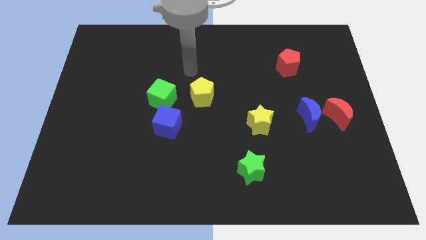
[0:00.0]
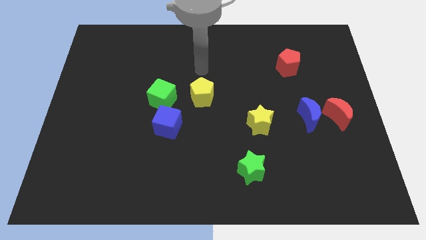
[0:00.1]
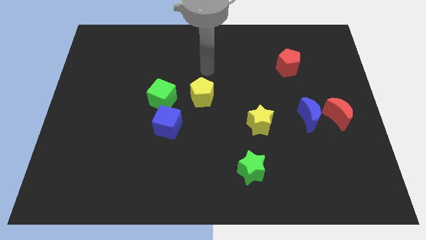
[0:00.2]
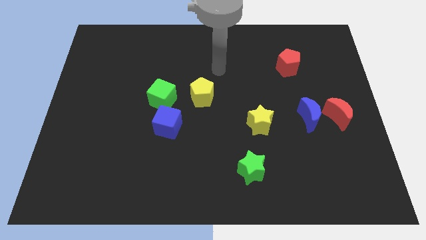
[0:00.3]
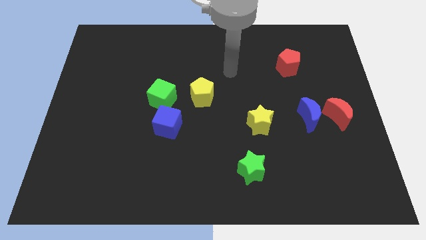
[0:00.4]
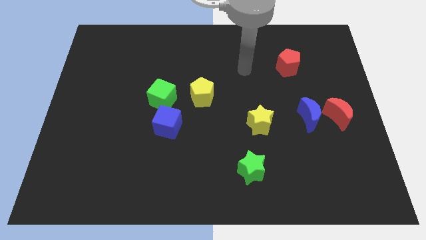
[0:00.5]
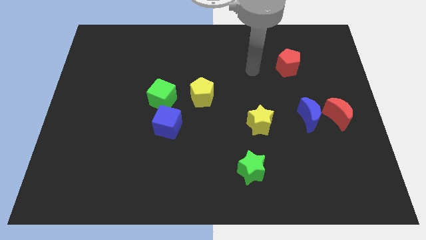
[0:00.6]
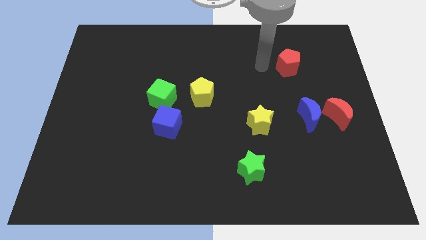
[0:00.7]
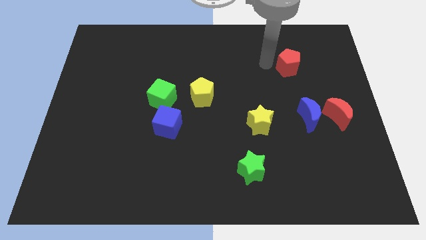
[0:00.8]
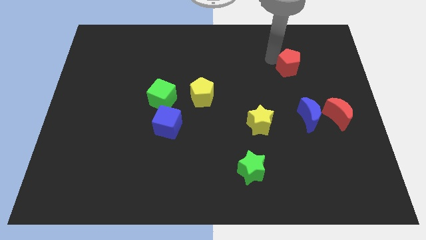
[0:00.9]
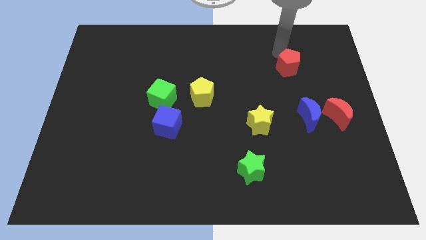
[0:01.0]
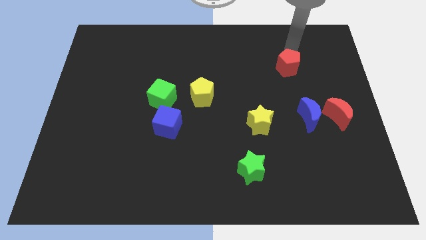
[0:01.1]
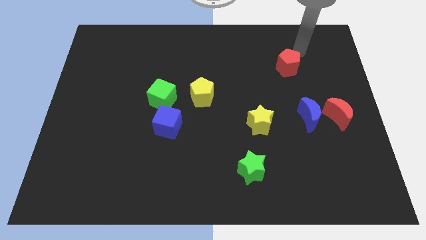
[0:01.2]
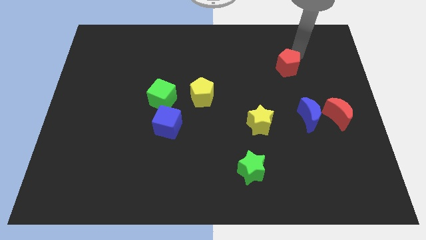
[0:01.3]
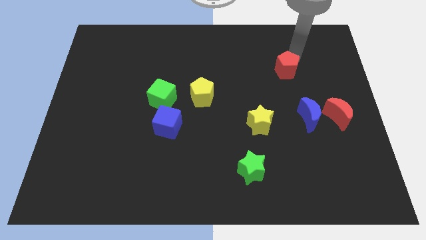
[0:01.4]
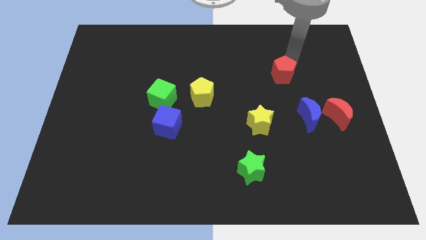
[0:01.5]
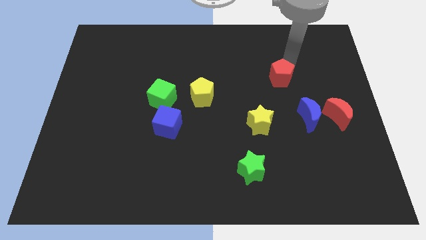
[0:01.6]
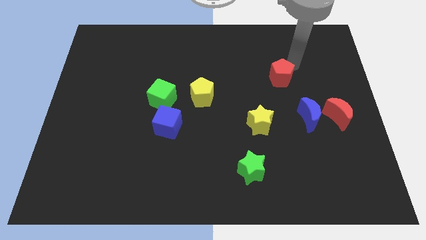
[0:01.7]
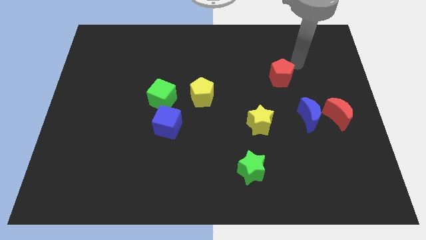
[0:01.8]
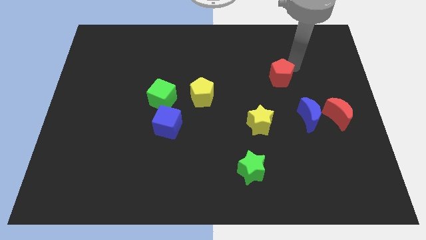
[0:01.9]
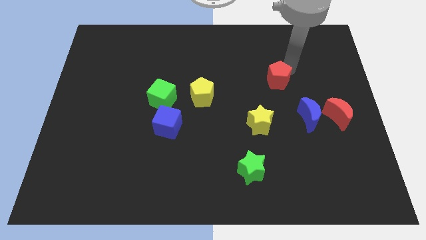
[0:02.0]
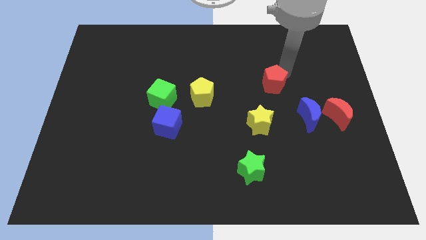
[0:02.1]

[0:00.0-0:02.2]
push the red pentagon downwards and to the left a bit

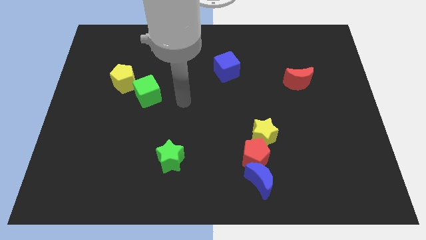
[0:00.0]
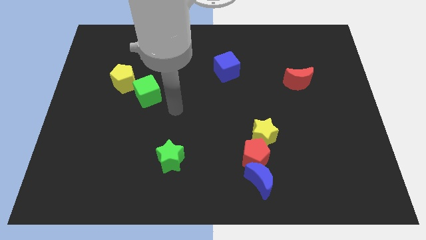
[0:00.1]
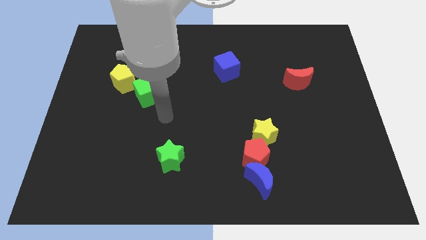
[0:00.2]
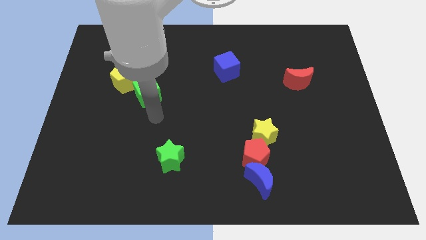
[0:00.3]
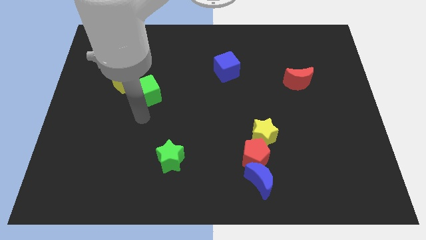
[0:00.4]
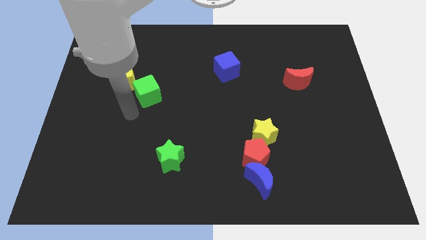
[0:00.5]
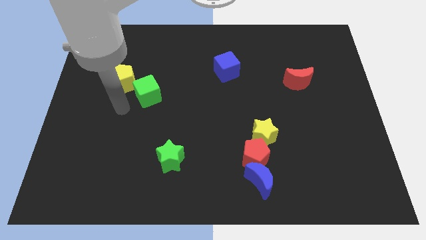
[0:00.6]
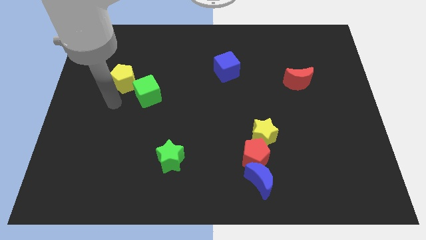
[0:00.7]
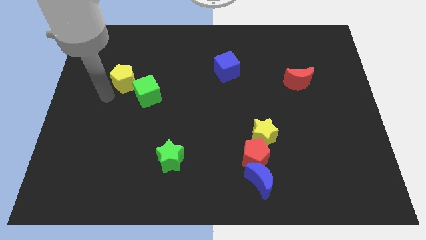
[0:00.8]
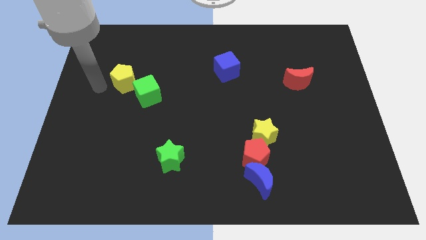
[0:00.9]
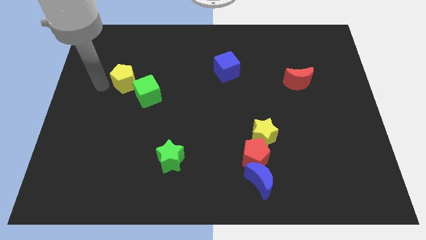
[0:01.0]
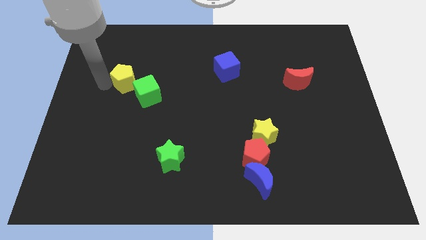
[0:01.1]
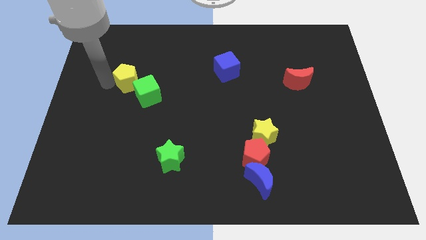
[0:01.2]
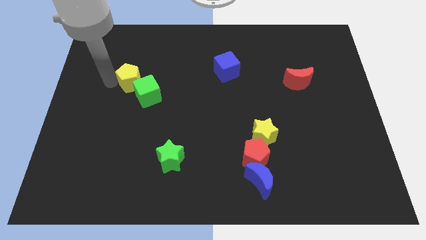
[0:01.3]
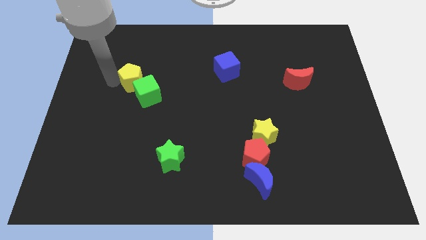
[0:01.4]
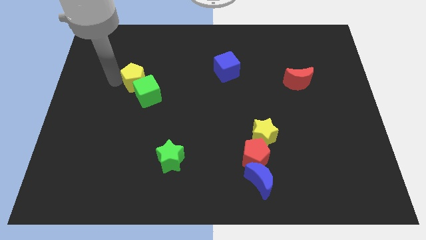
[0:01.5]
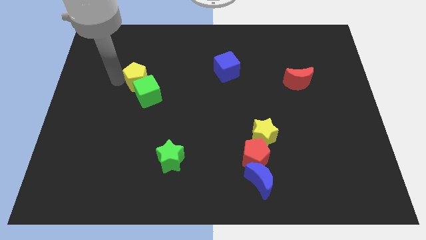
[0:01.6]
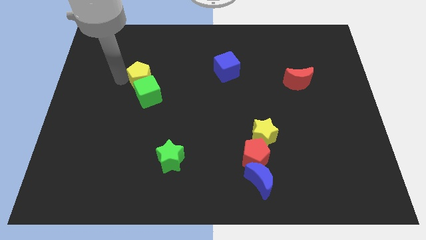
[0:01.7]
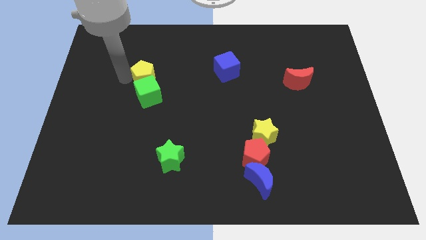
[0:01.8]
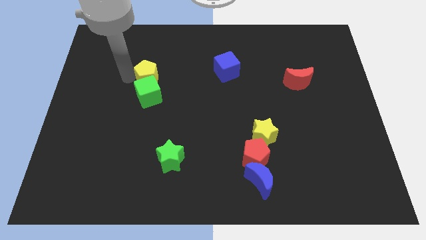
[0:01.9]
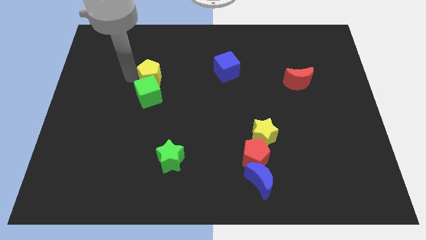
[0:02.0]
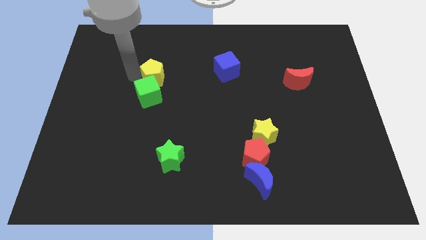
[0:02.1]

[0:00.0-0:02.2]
move the yellow pentagon a little right

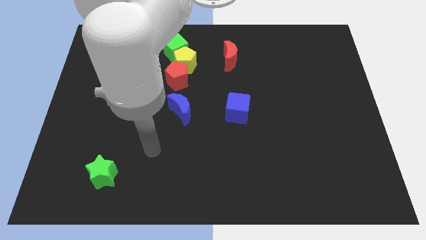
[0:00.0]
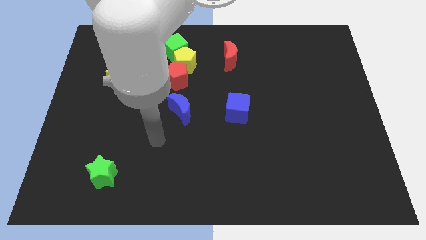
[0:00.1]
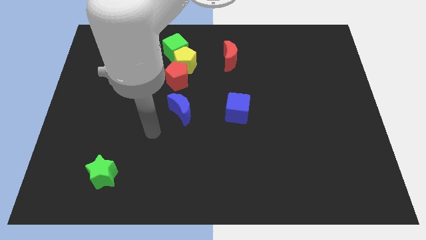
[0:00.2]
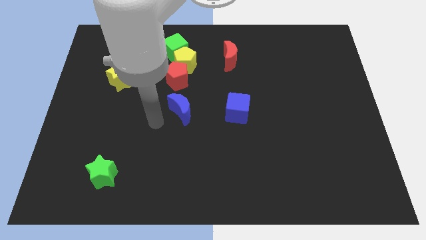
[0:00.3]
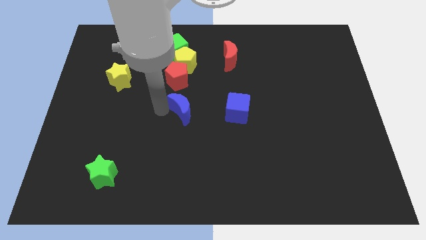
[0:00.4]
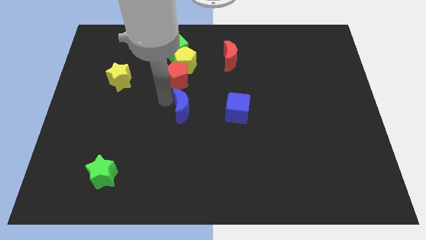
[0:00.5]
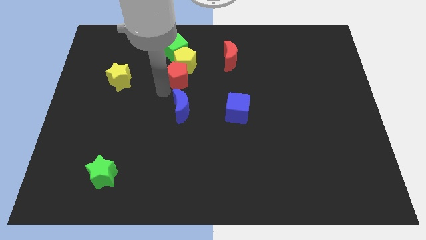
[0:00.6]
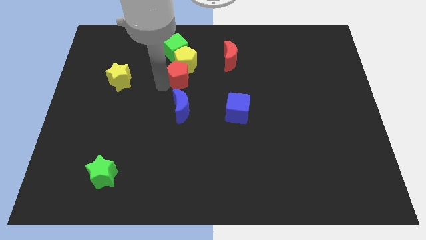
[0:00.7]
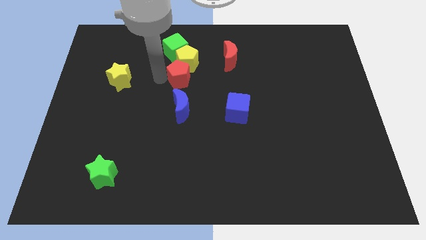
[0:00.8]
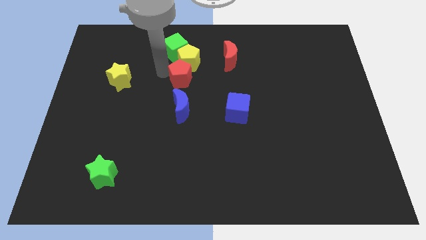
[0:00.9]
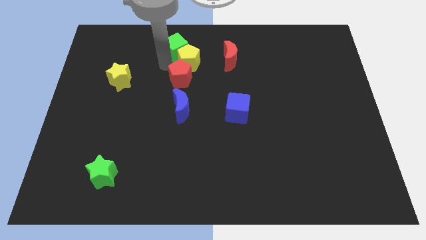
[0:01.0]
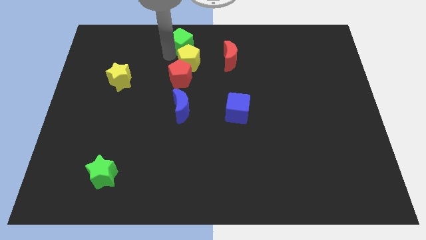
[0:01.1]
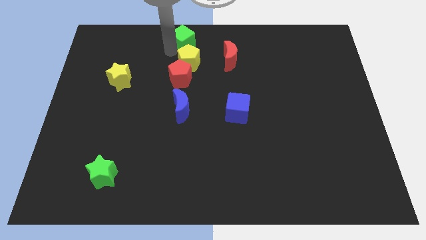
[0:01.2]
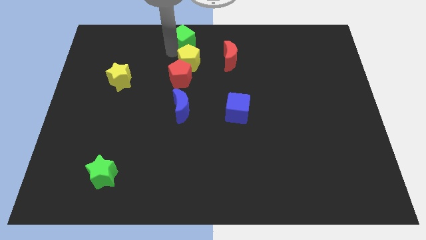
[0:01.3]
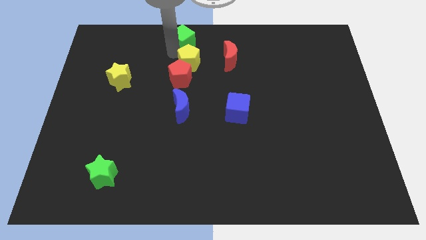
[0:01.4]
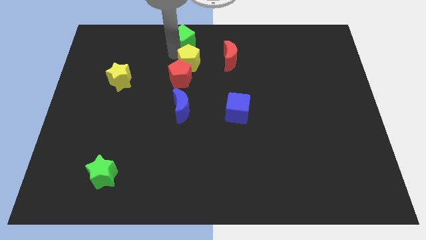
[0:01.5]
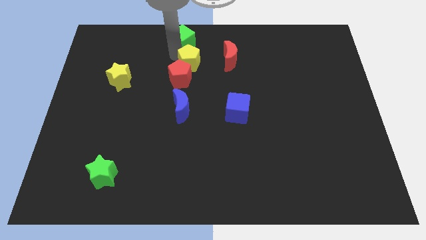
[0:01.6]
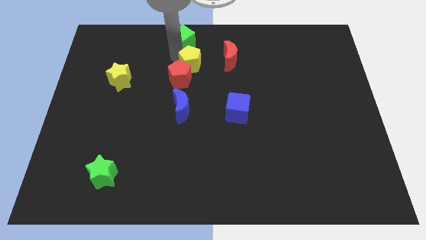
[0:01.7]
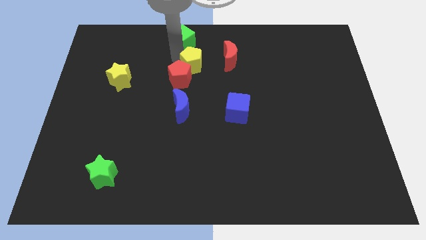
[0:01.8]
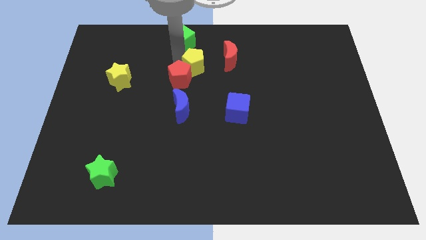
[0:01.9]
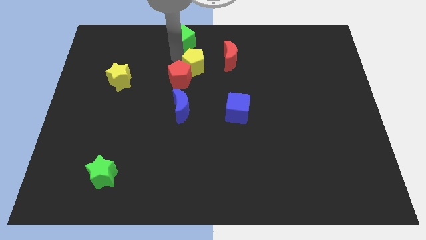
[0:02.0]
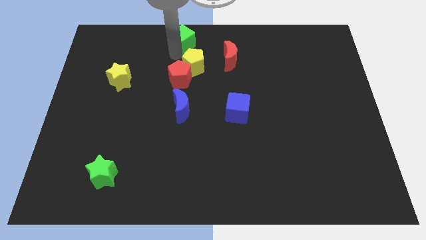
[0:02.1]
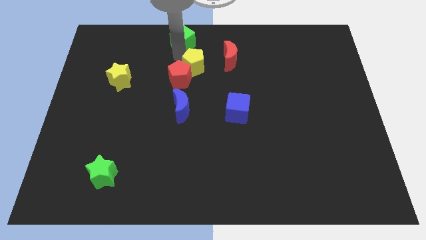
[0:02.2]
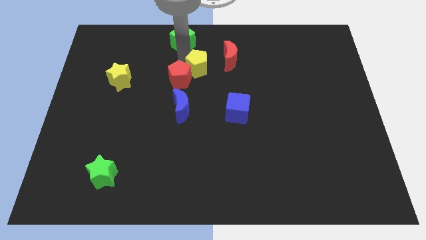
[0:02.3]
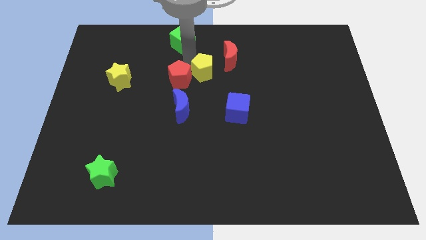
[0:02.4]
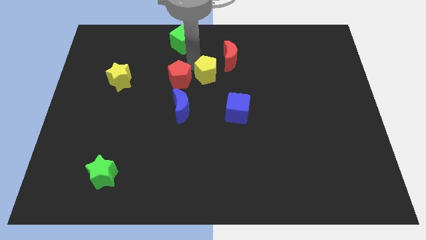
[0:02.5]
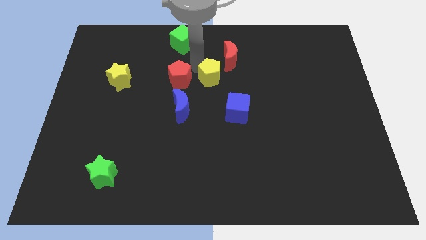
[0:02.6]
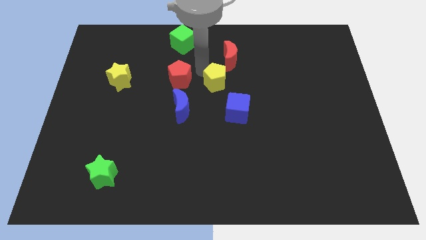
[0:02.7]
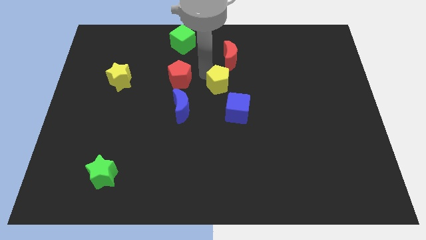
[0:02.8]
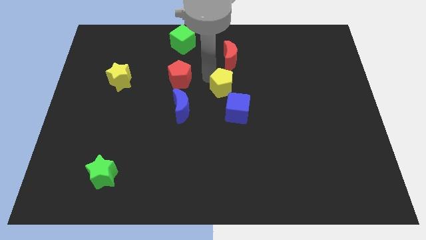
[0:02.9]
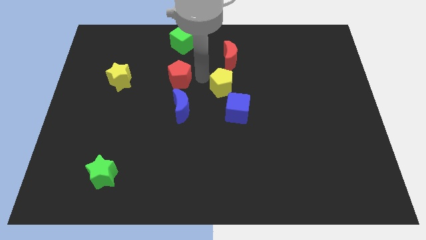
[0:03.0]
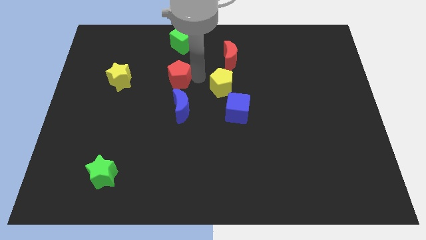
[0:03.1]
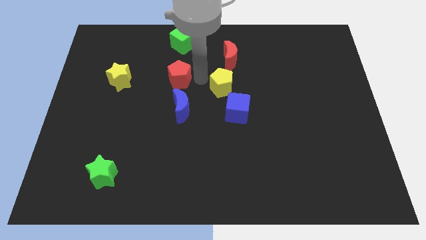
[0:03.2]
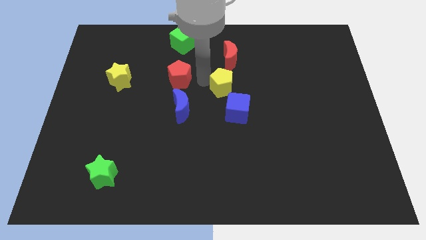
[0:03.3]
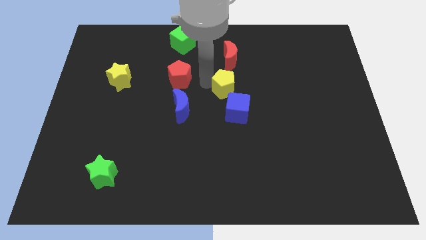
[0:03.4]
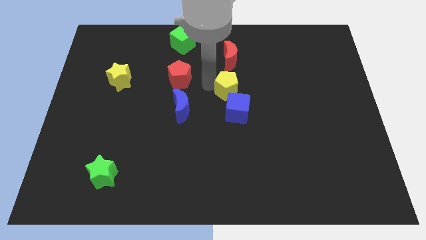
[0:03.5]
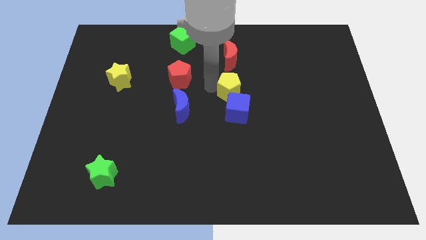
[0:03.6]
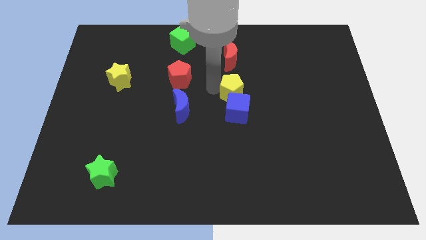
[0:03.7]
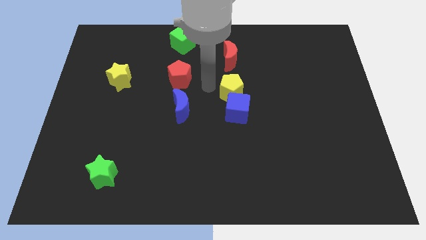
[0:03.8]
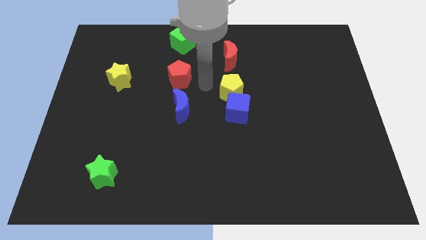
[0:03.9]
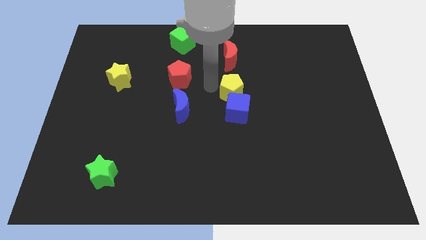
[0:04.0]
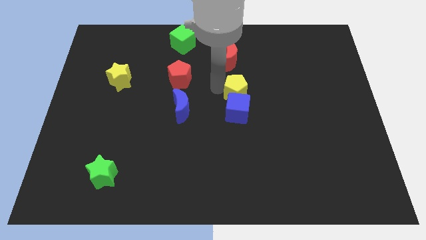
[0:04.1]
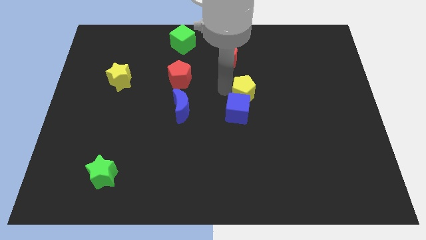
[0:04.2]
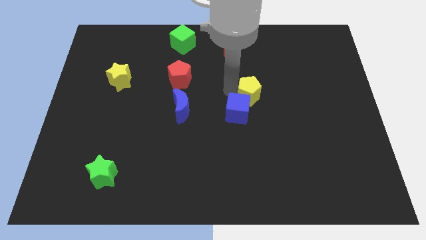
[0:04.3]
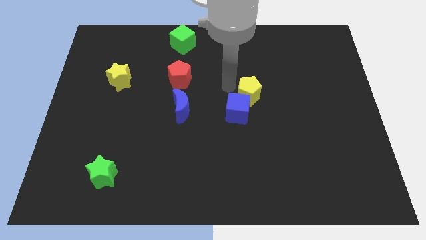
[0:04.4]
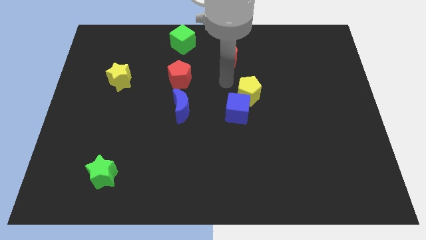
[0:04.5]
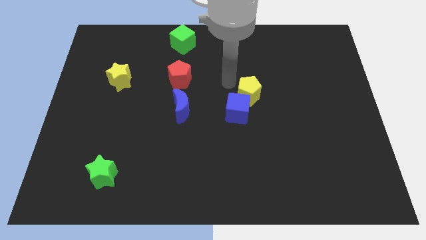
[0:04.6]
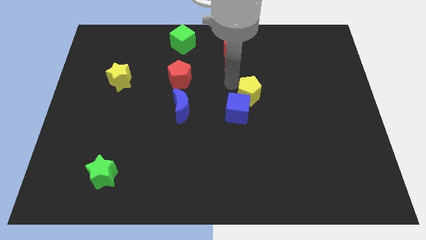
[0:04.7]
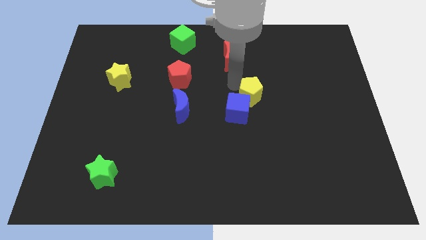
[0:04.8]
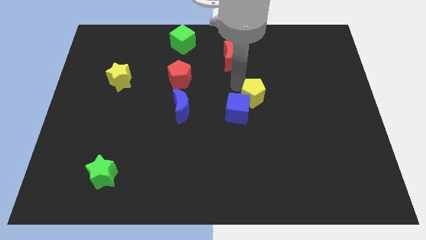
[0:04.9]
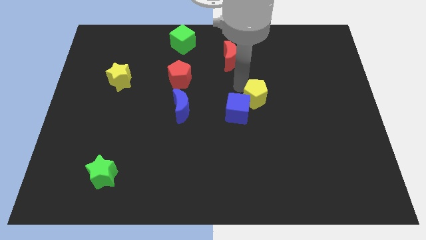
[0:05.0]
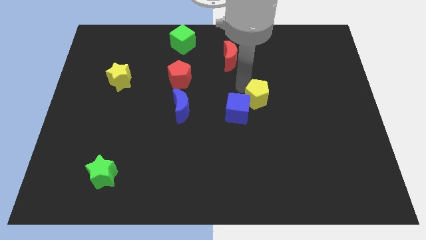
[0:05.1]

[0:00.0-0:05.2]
move the yellow pentagon down and to the right diagonally
